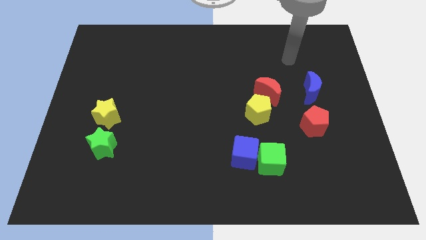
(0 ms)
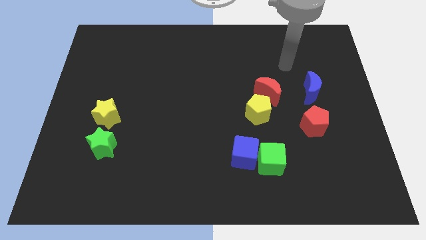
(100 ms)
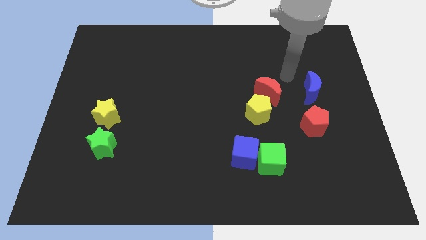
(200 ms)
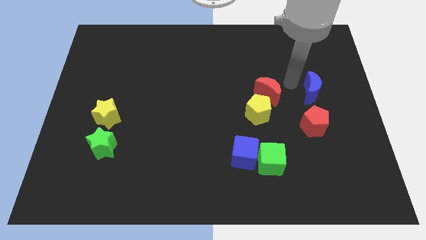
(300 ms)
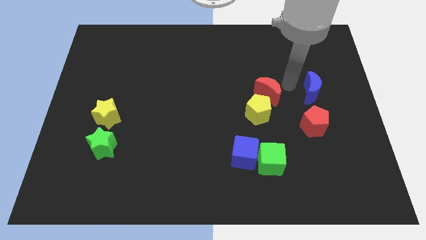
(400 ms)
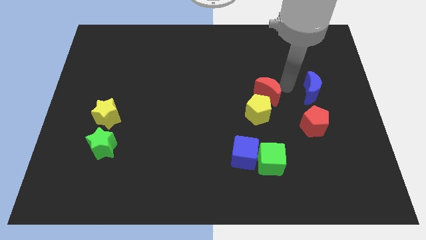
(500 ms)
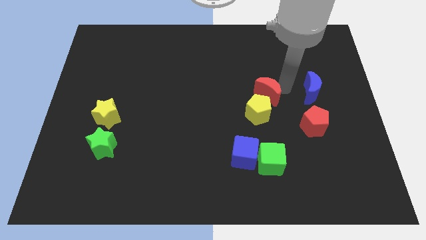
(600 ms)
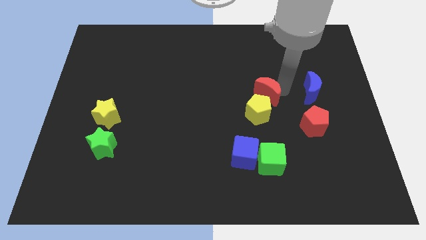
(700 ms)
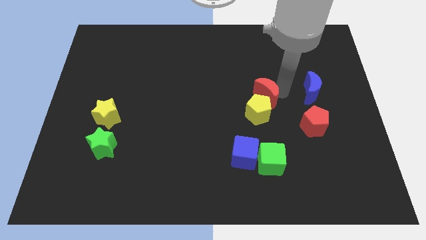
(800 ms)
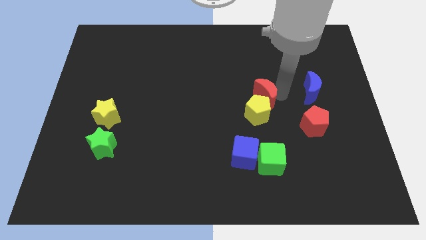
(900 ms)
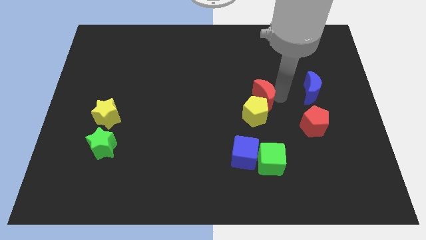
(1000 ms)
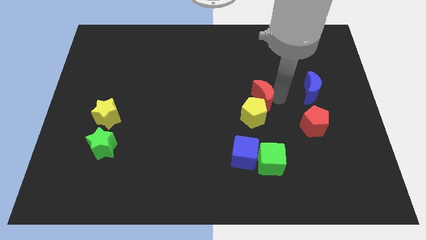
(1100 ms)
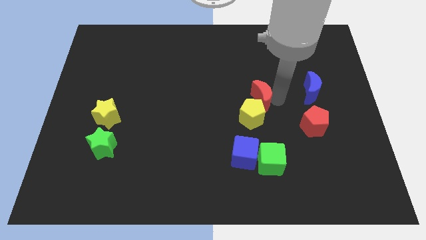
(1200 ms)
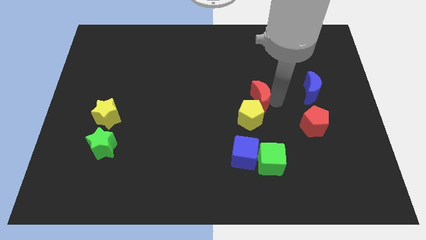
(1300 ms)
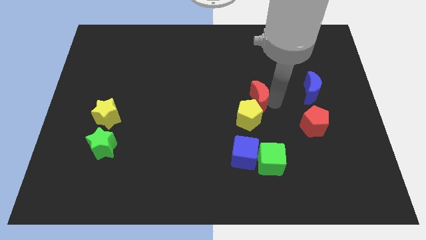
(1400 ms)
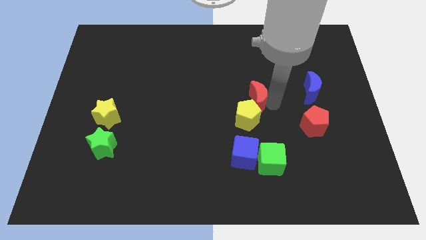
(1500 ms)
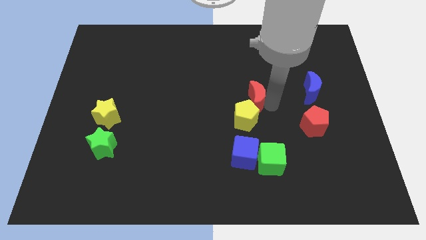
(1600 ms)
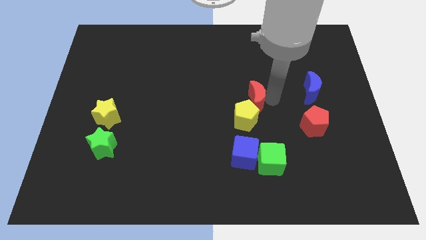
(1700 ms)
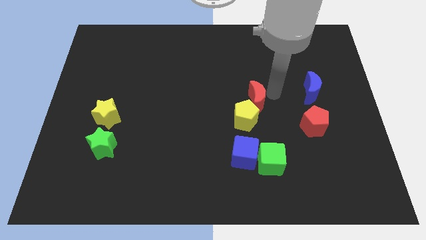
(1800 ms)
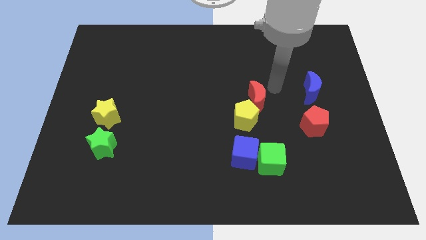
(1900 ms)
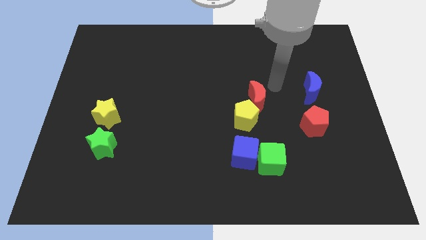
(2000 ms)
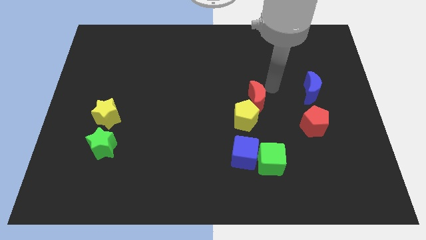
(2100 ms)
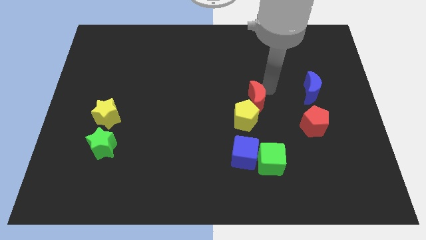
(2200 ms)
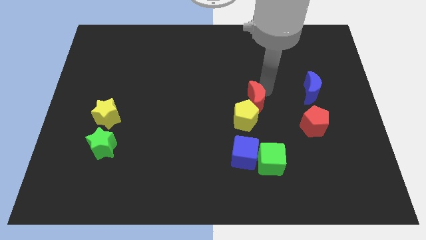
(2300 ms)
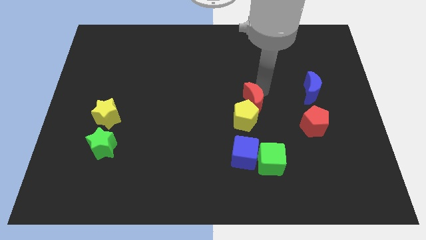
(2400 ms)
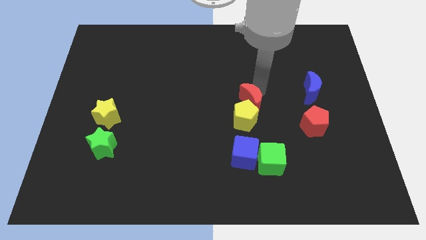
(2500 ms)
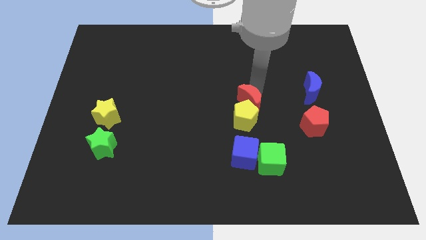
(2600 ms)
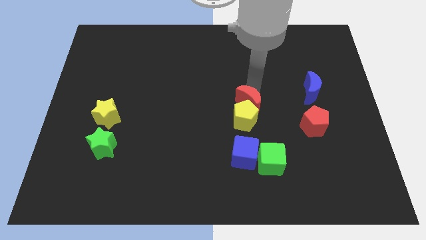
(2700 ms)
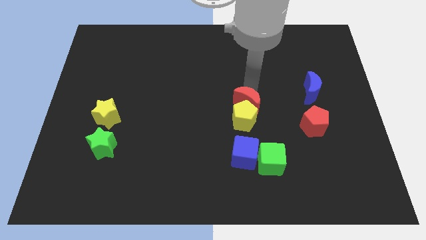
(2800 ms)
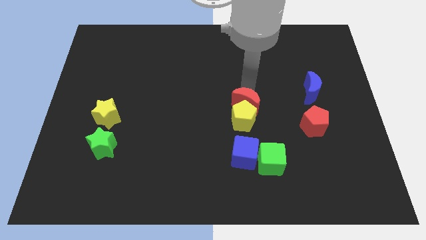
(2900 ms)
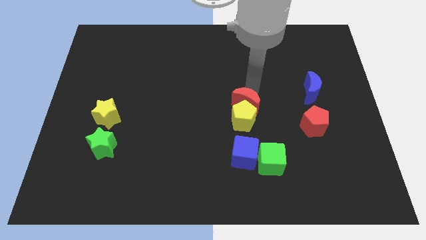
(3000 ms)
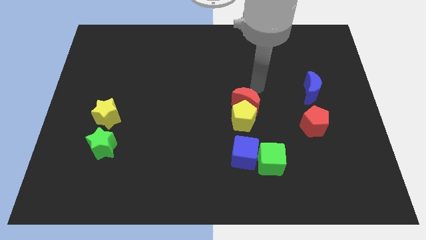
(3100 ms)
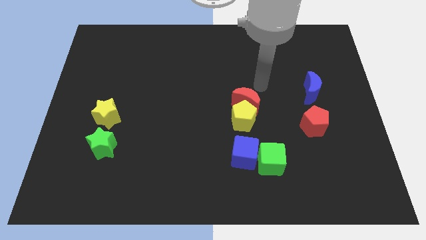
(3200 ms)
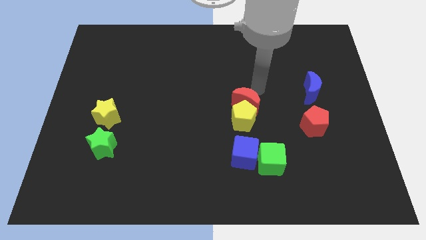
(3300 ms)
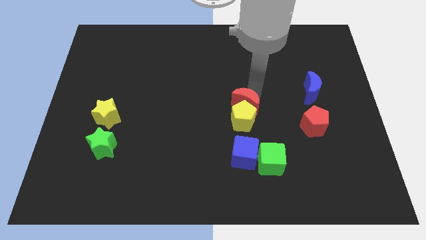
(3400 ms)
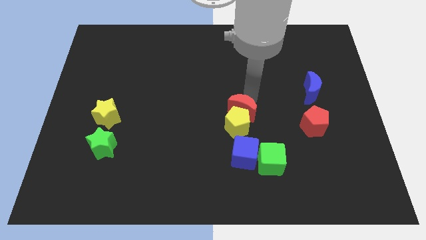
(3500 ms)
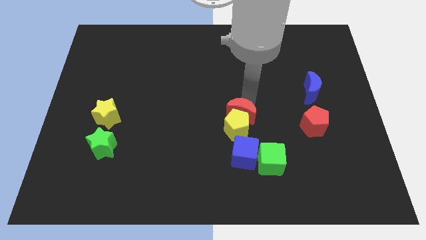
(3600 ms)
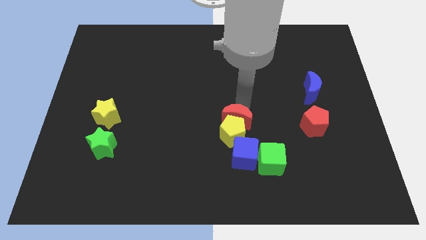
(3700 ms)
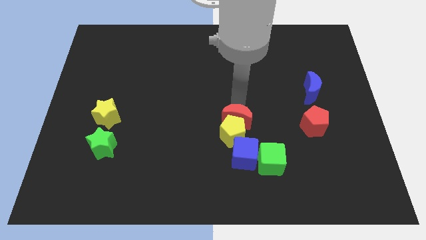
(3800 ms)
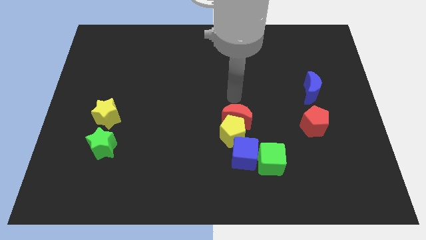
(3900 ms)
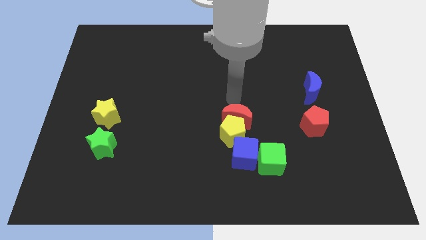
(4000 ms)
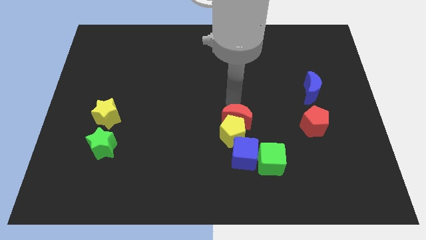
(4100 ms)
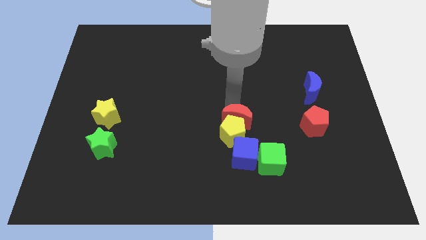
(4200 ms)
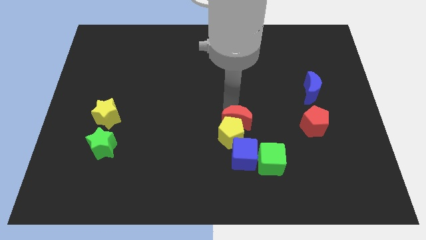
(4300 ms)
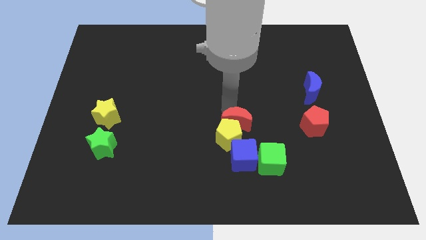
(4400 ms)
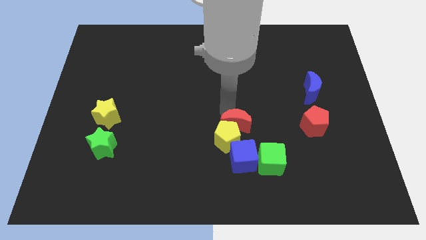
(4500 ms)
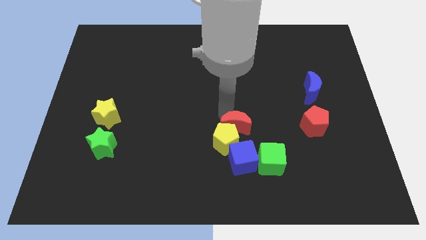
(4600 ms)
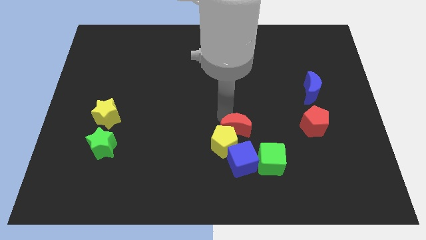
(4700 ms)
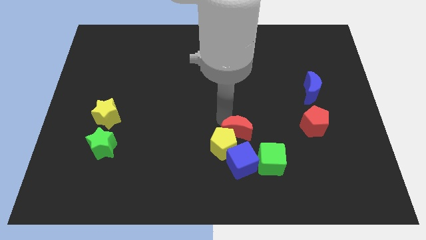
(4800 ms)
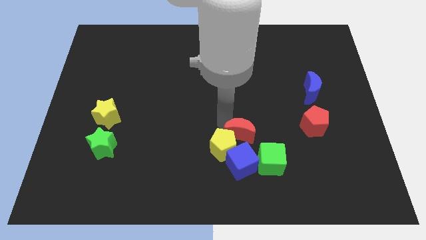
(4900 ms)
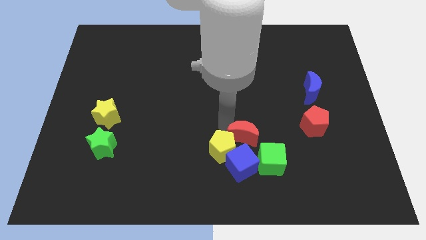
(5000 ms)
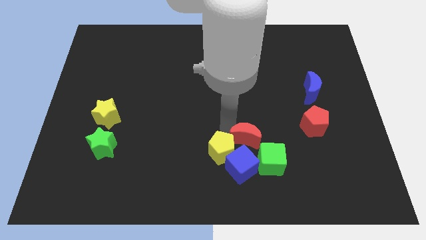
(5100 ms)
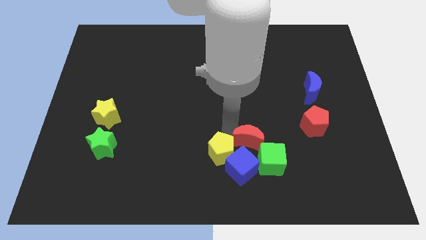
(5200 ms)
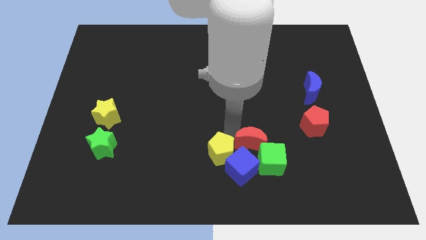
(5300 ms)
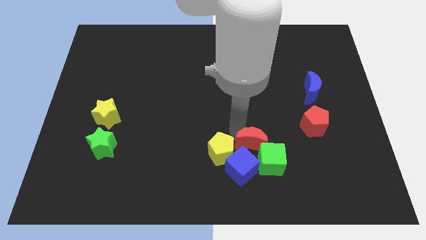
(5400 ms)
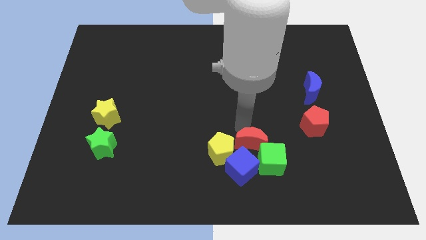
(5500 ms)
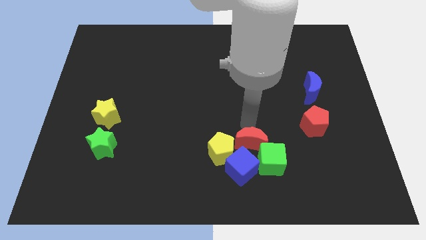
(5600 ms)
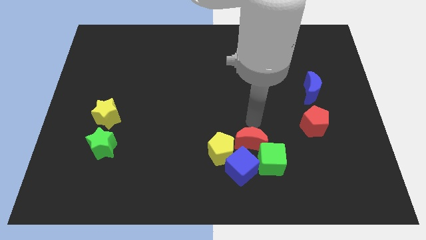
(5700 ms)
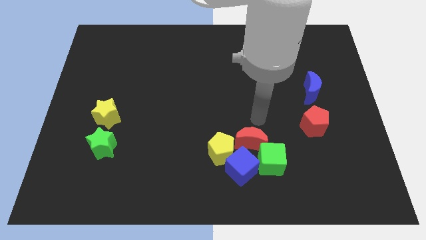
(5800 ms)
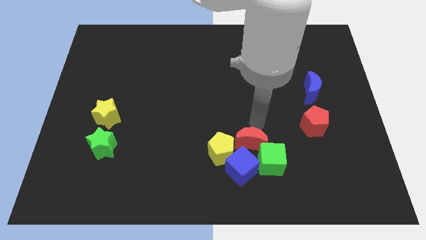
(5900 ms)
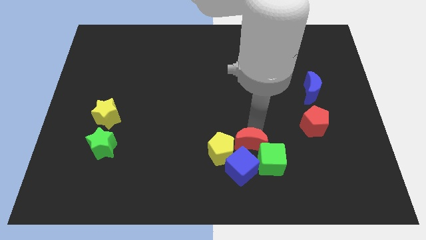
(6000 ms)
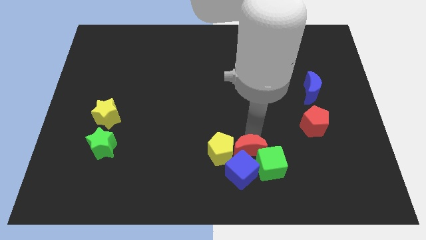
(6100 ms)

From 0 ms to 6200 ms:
push the red moon close to the blue cube

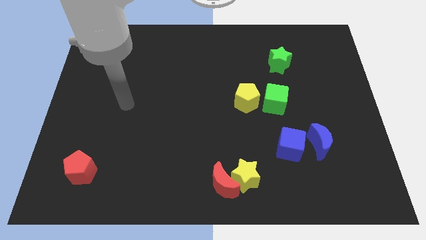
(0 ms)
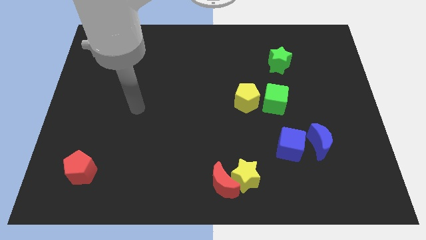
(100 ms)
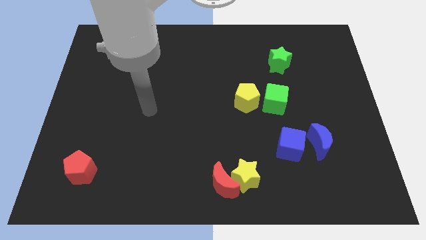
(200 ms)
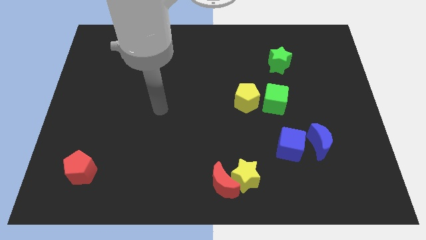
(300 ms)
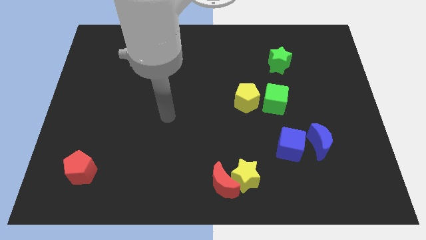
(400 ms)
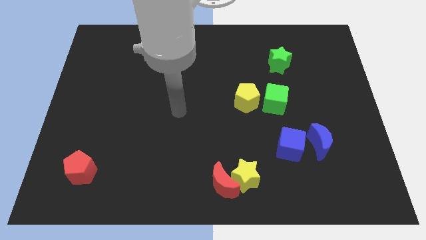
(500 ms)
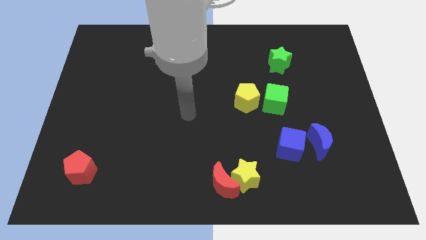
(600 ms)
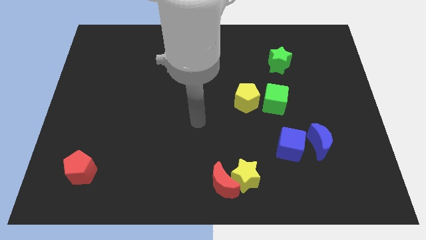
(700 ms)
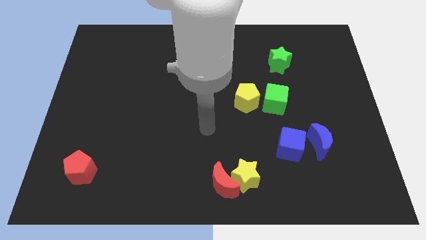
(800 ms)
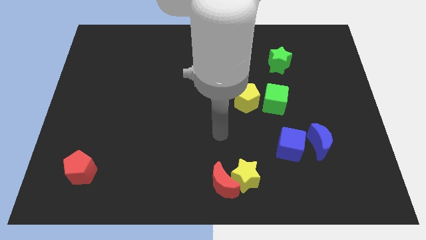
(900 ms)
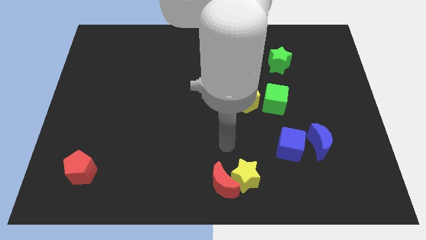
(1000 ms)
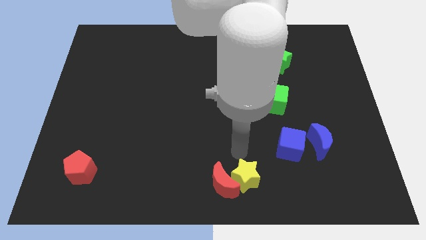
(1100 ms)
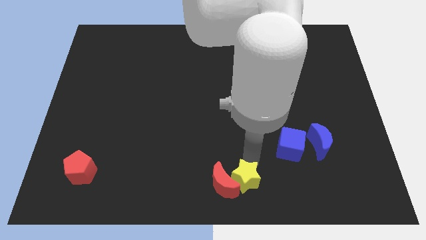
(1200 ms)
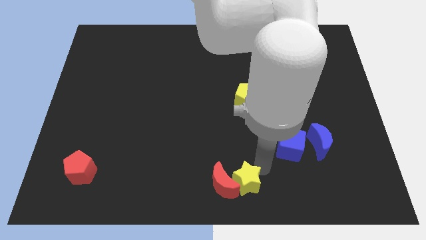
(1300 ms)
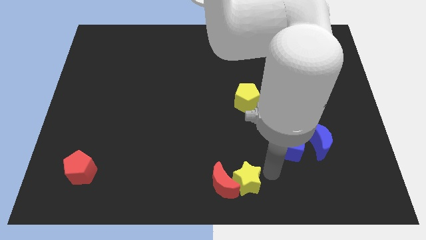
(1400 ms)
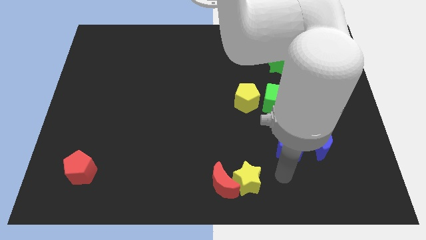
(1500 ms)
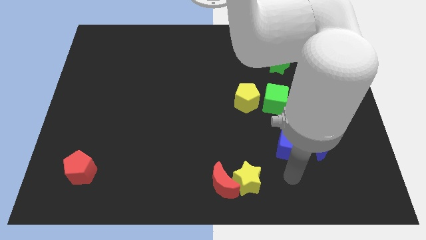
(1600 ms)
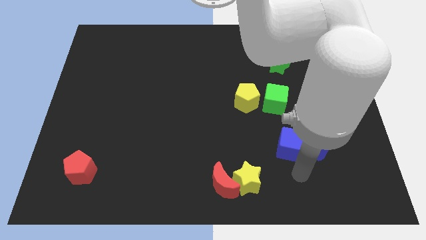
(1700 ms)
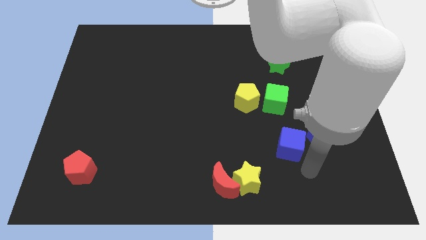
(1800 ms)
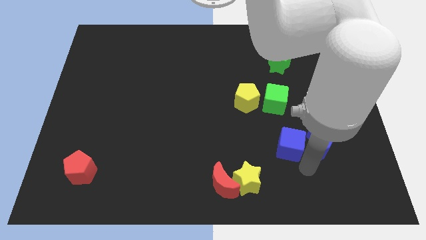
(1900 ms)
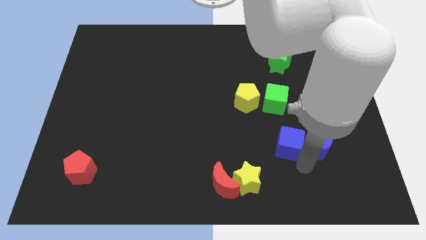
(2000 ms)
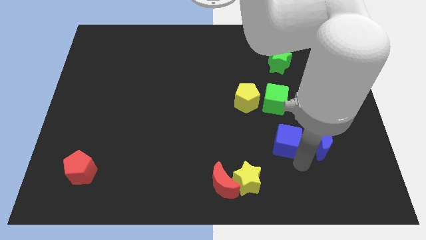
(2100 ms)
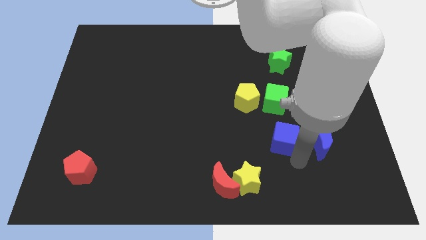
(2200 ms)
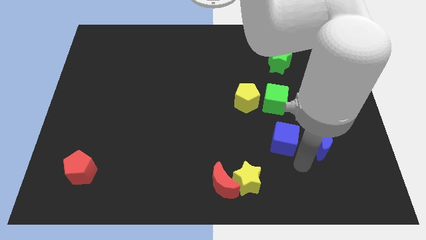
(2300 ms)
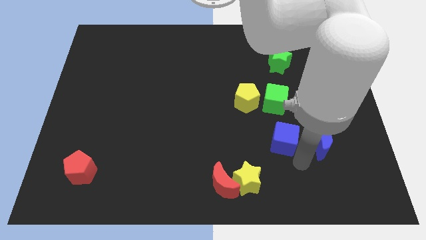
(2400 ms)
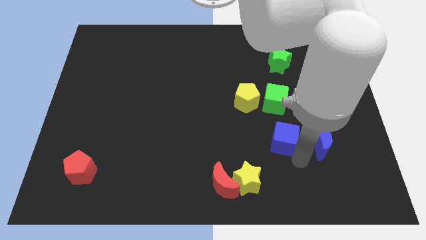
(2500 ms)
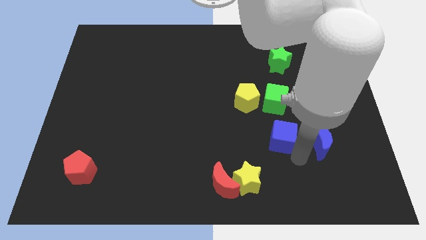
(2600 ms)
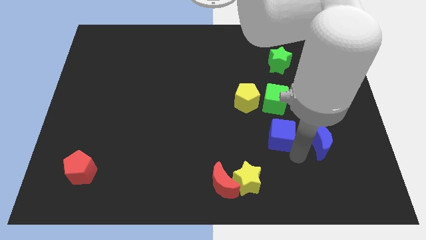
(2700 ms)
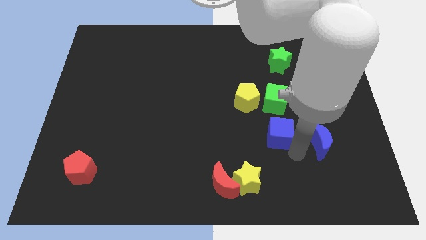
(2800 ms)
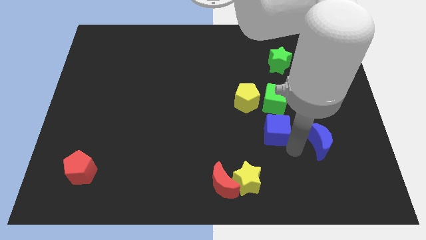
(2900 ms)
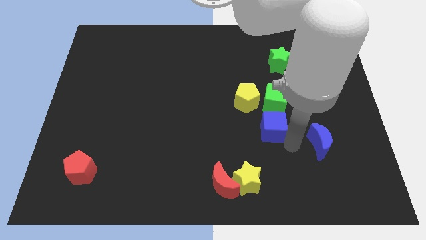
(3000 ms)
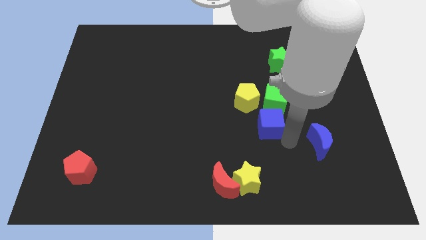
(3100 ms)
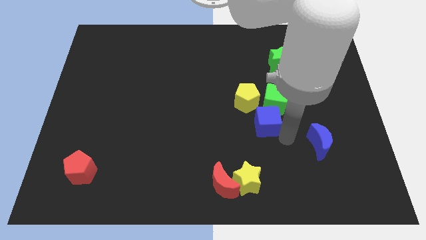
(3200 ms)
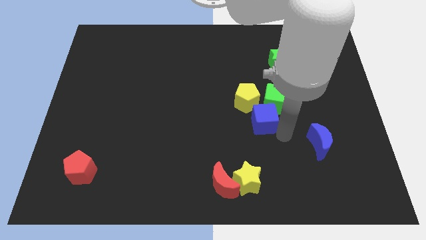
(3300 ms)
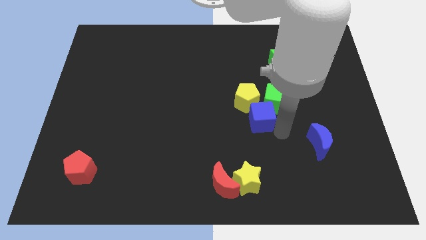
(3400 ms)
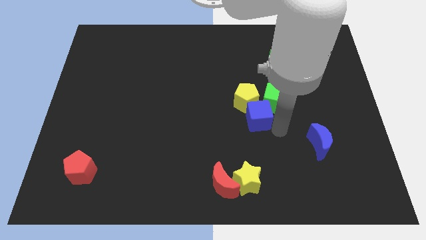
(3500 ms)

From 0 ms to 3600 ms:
put the blue cube close to the yellow pentagon
